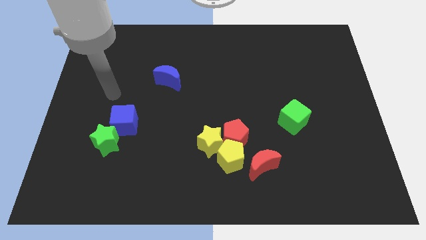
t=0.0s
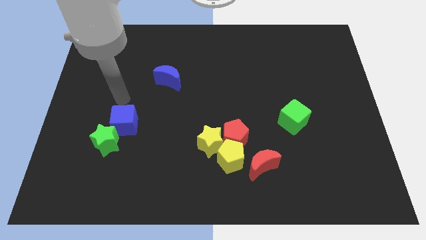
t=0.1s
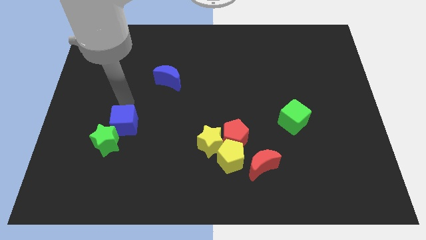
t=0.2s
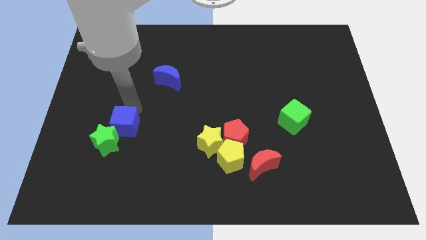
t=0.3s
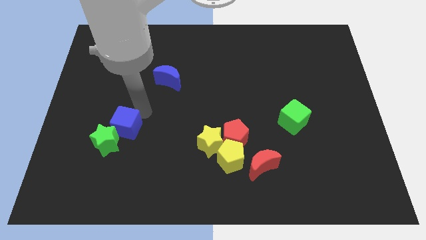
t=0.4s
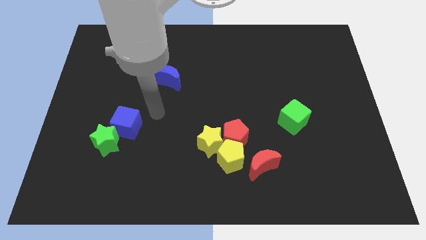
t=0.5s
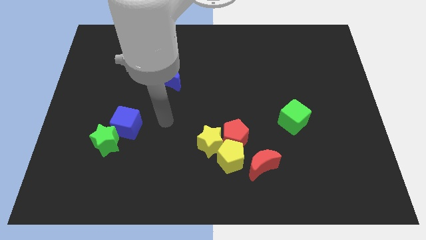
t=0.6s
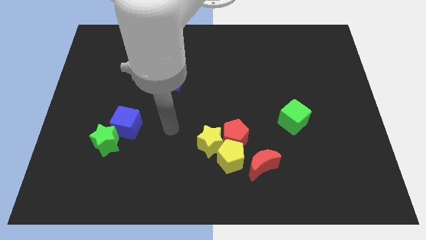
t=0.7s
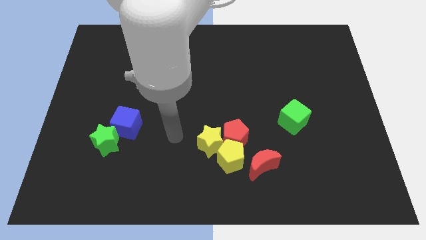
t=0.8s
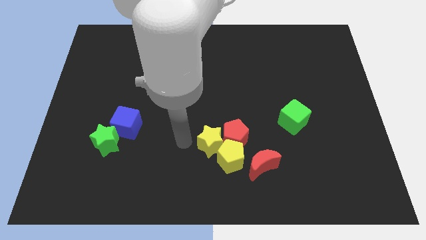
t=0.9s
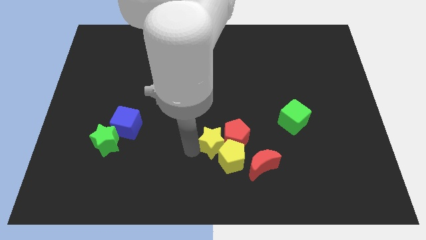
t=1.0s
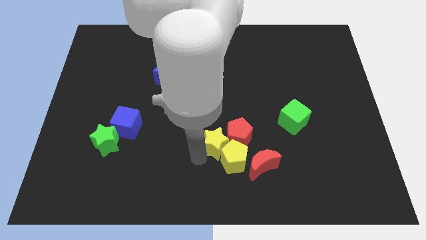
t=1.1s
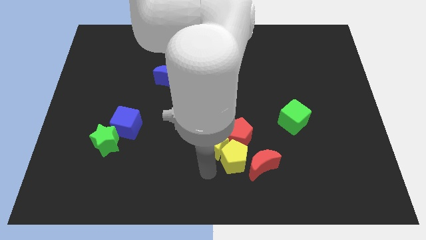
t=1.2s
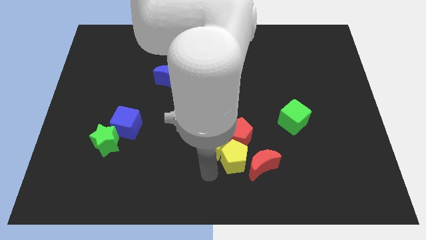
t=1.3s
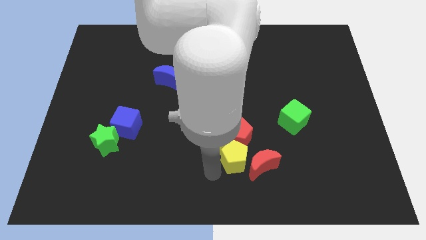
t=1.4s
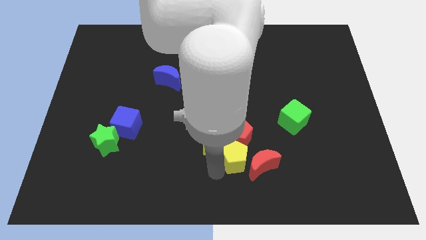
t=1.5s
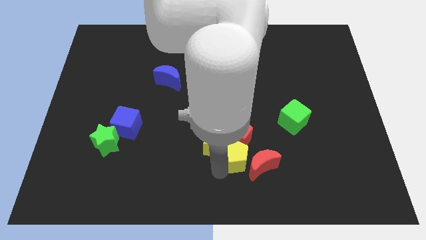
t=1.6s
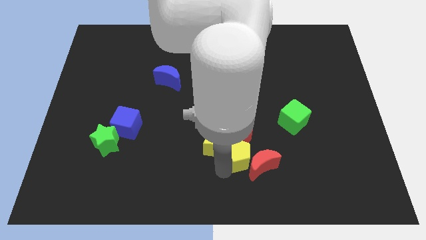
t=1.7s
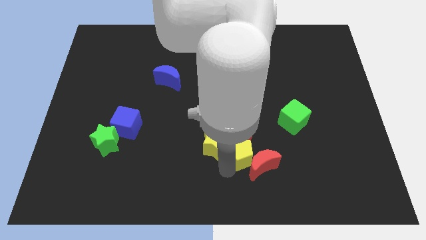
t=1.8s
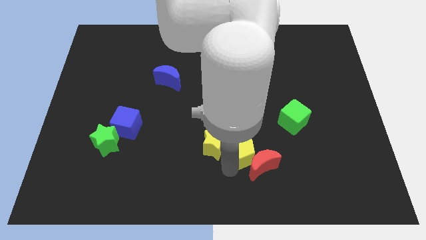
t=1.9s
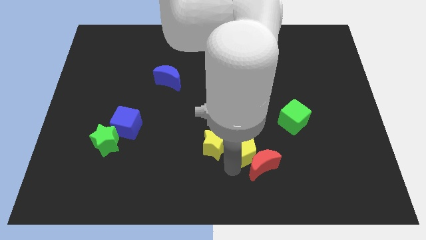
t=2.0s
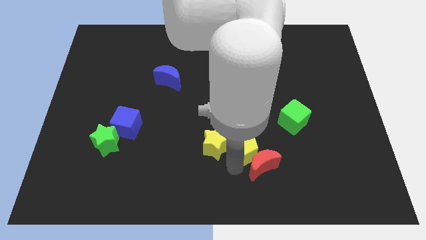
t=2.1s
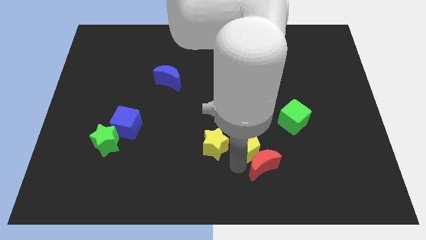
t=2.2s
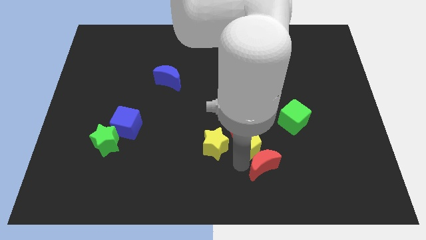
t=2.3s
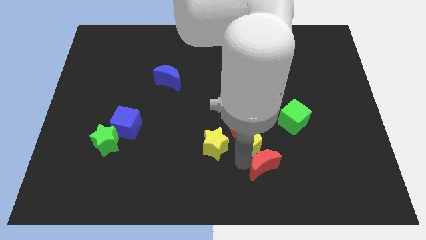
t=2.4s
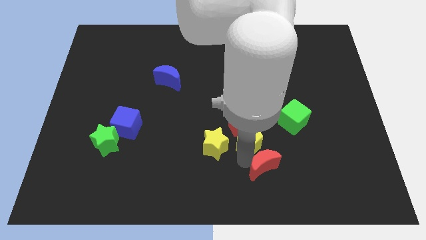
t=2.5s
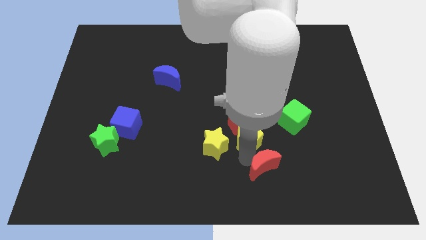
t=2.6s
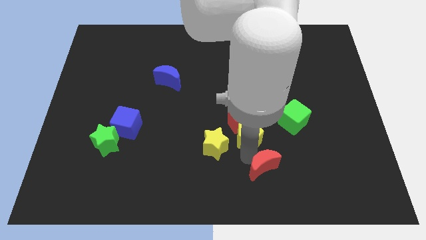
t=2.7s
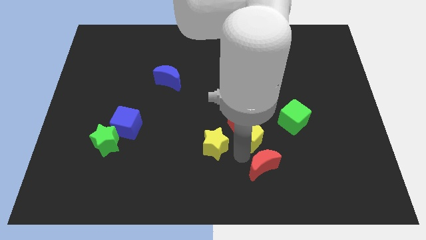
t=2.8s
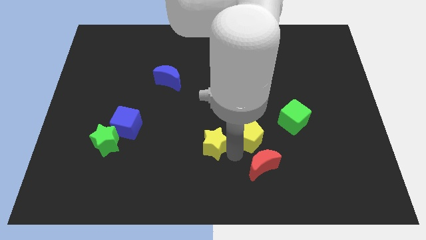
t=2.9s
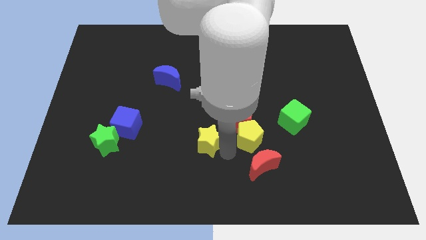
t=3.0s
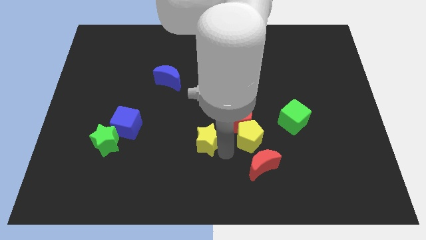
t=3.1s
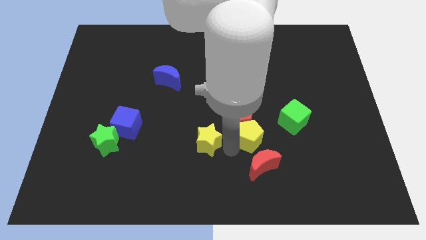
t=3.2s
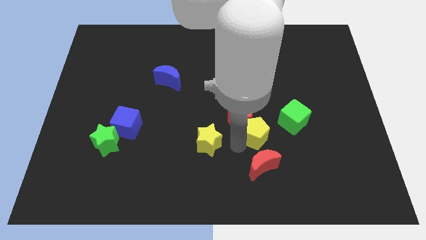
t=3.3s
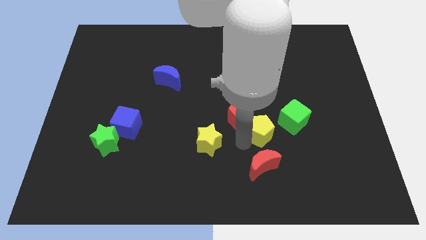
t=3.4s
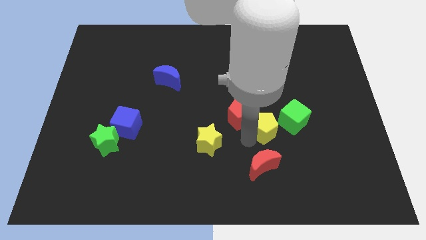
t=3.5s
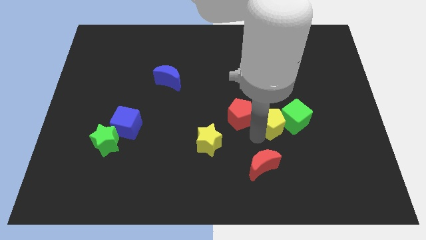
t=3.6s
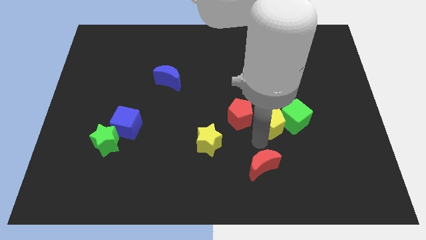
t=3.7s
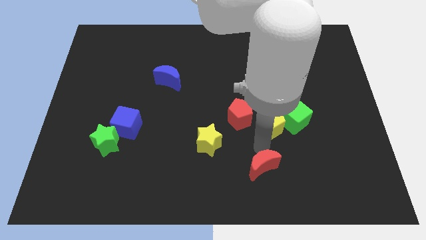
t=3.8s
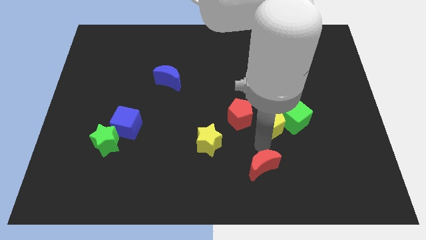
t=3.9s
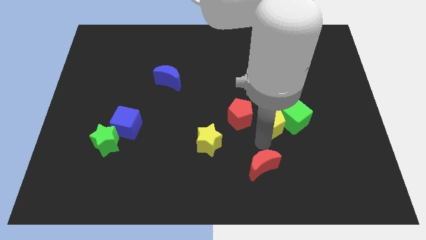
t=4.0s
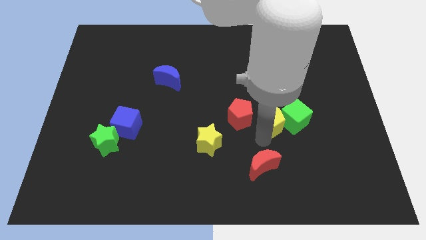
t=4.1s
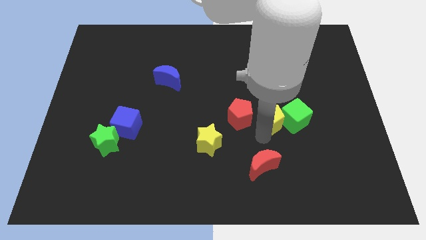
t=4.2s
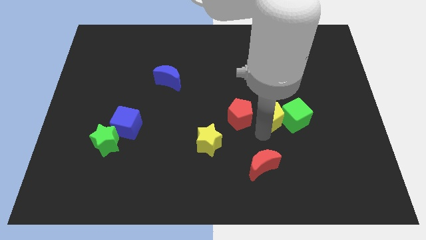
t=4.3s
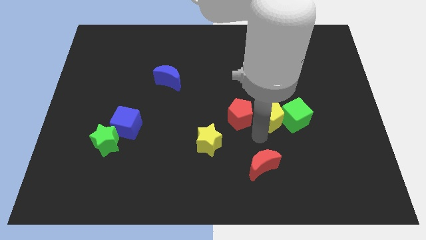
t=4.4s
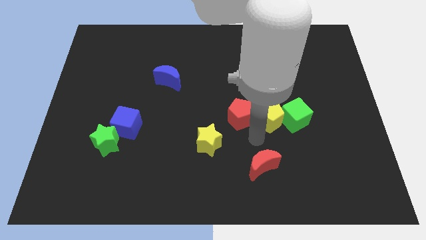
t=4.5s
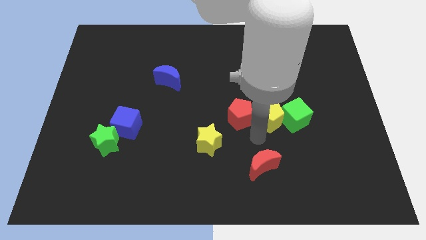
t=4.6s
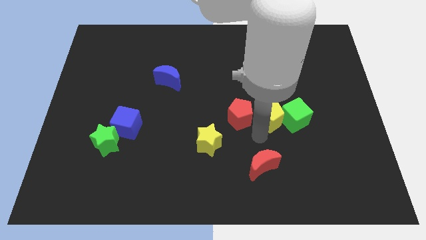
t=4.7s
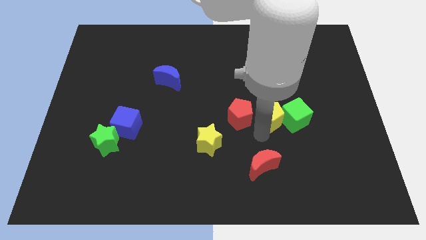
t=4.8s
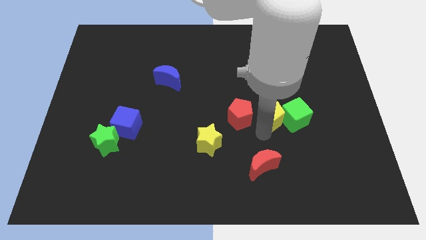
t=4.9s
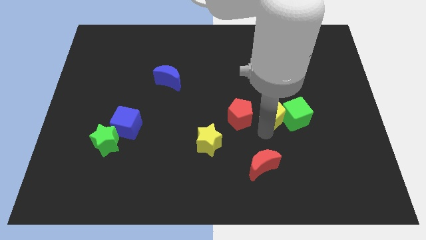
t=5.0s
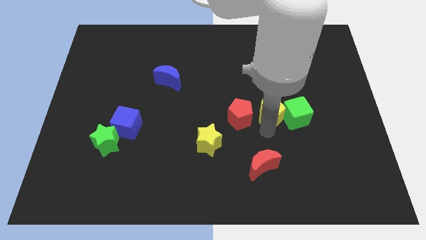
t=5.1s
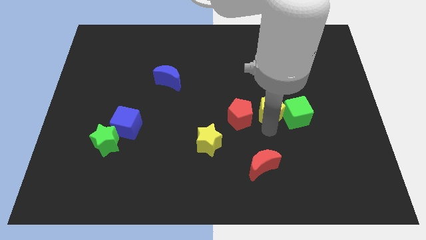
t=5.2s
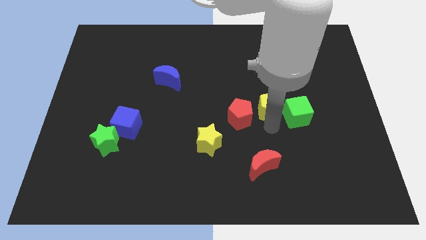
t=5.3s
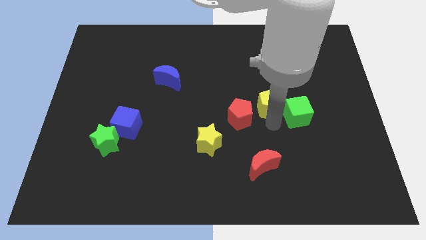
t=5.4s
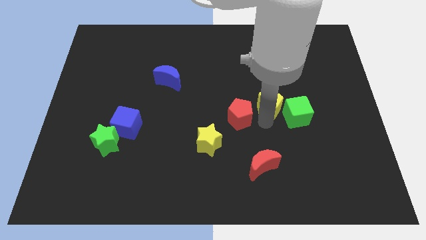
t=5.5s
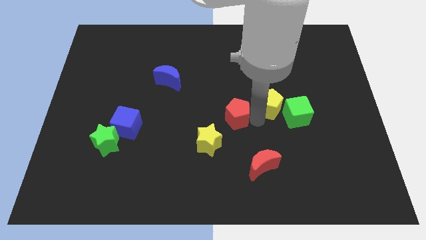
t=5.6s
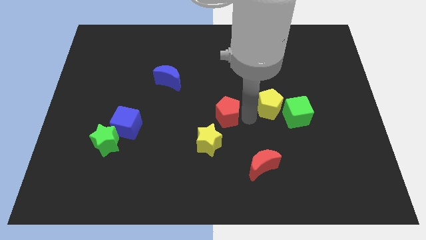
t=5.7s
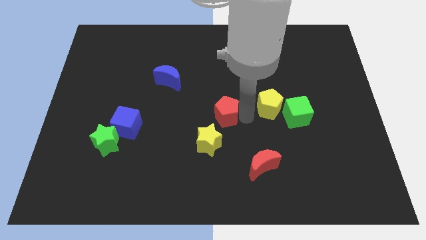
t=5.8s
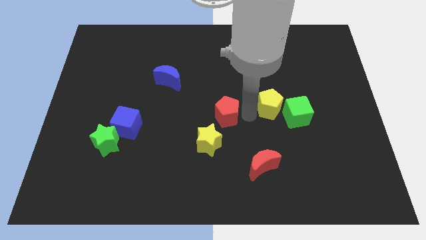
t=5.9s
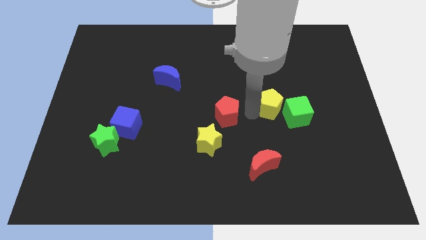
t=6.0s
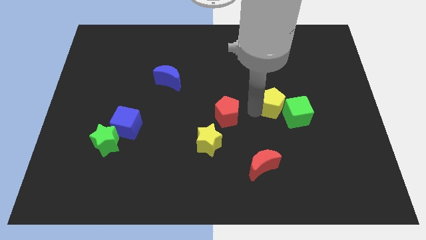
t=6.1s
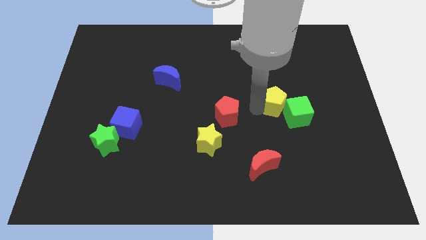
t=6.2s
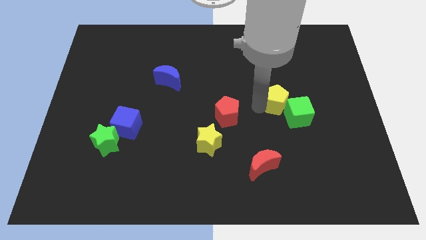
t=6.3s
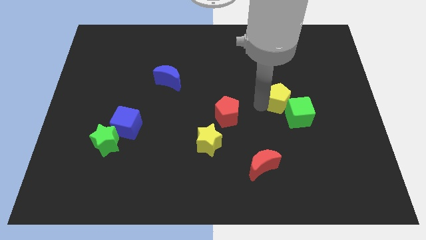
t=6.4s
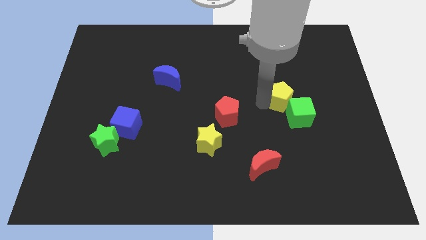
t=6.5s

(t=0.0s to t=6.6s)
slide the yellow pentagon up and then right

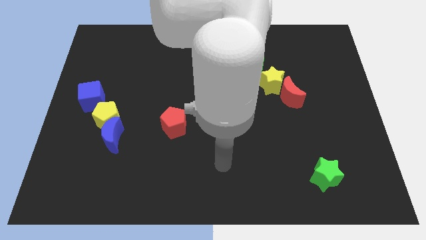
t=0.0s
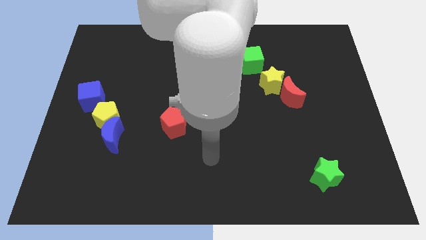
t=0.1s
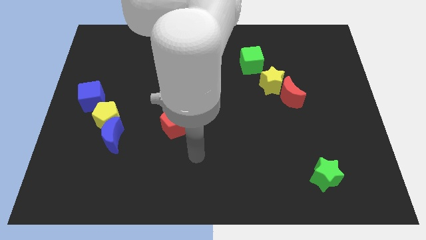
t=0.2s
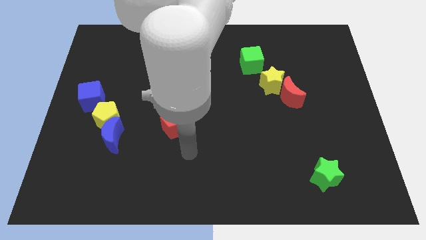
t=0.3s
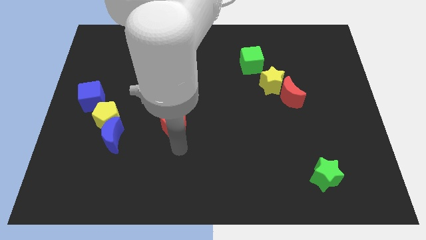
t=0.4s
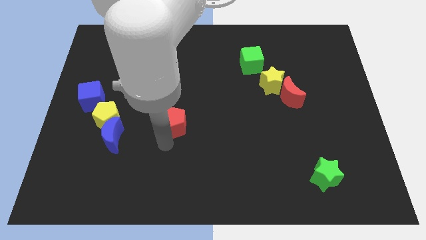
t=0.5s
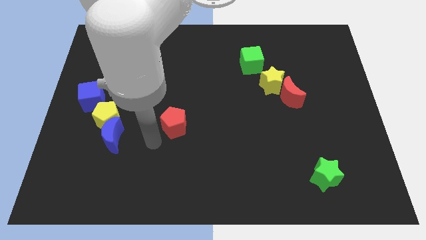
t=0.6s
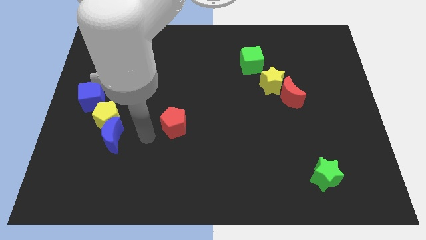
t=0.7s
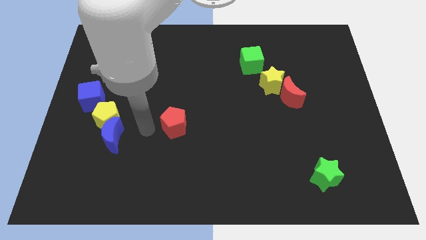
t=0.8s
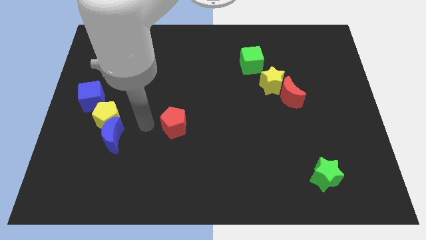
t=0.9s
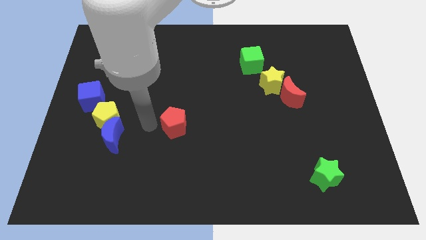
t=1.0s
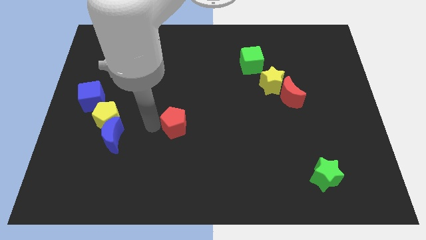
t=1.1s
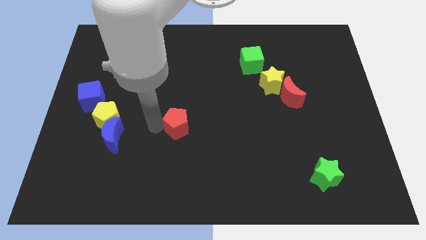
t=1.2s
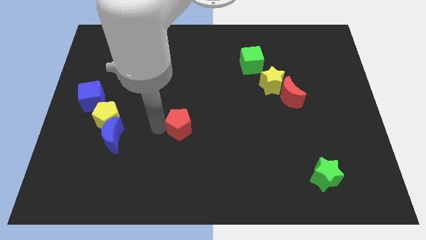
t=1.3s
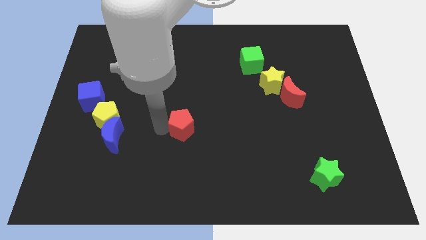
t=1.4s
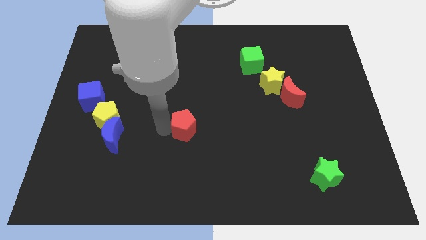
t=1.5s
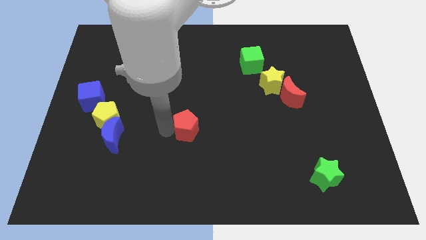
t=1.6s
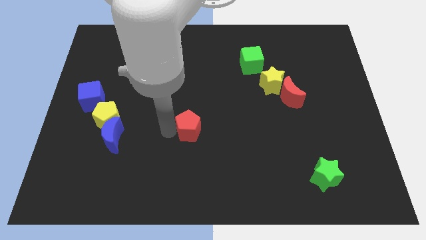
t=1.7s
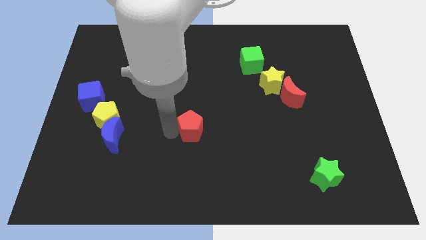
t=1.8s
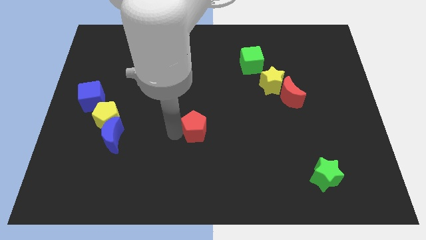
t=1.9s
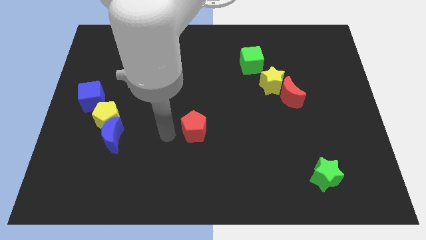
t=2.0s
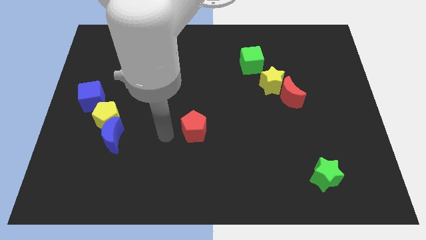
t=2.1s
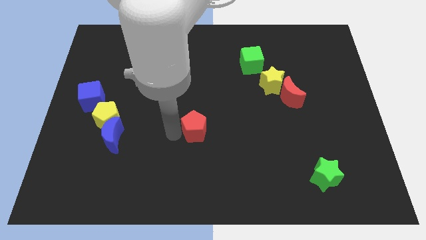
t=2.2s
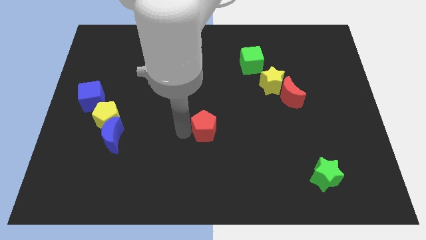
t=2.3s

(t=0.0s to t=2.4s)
push the red pentagon to the right slightly
